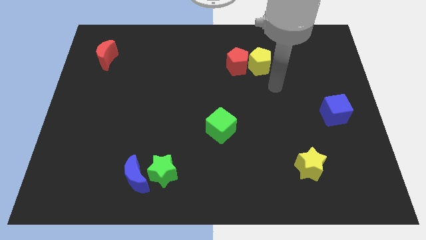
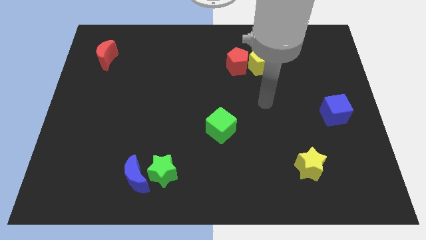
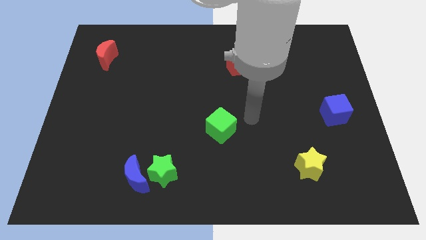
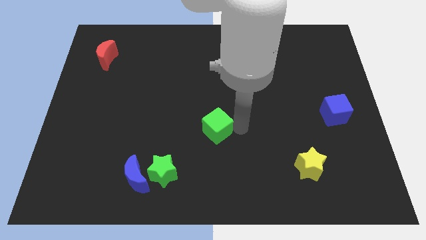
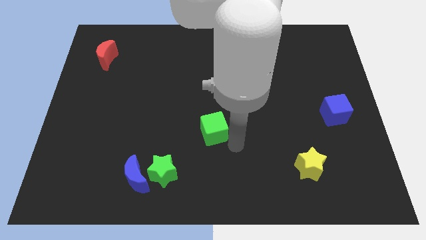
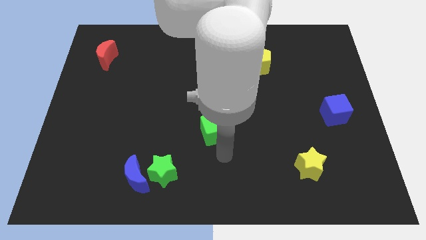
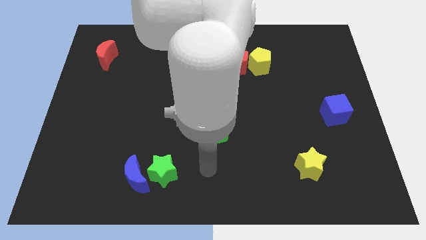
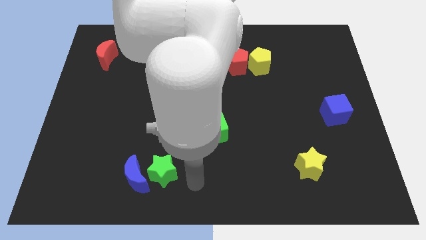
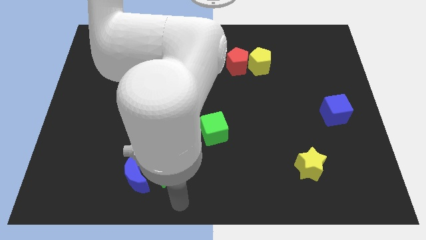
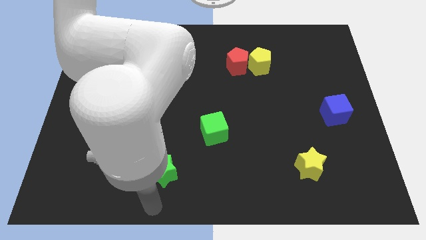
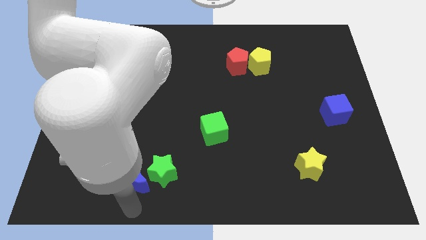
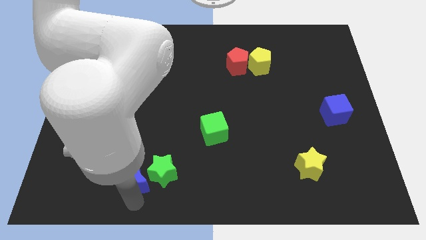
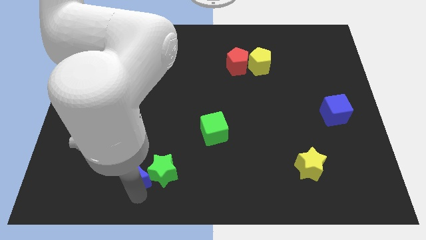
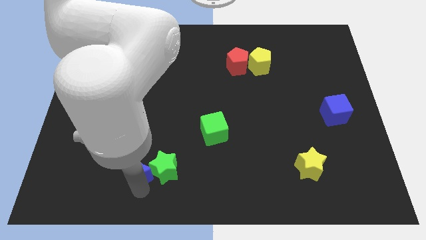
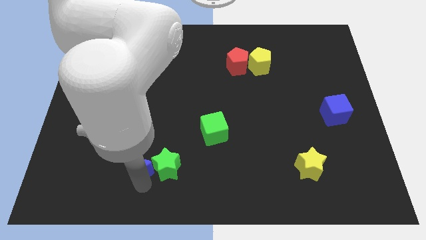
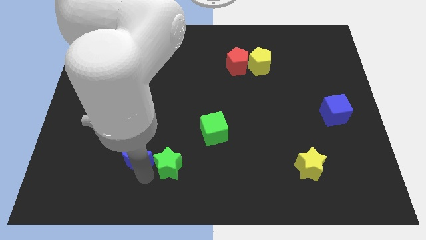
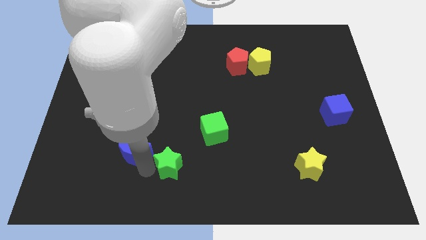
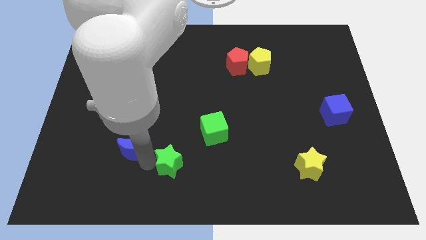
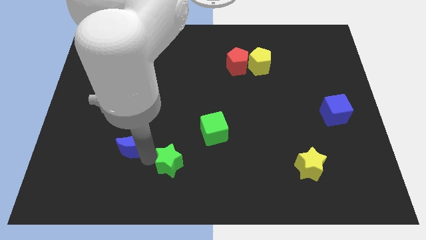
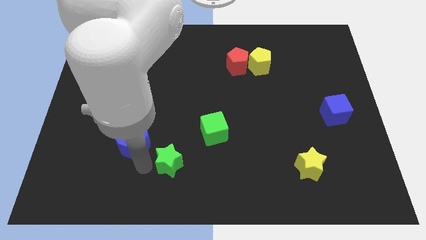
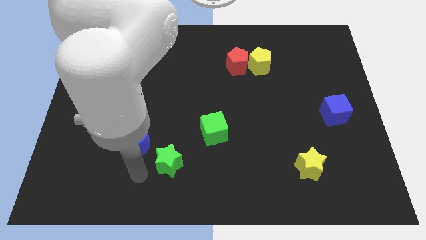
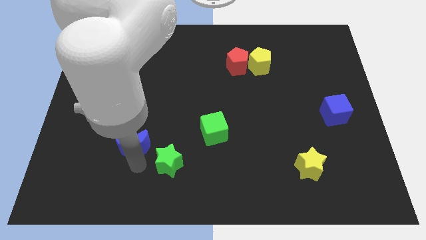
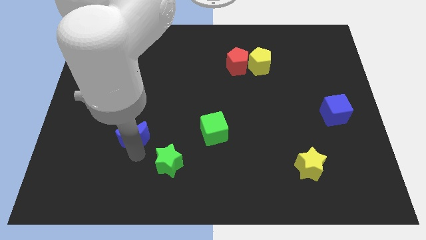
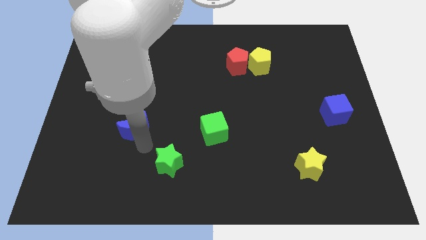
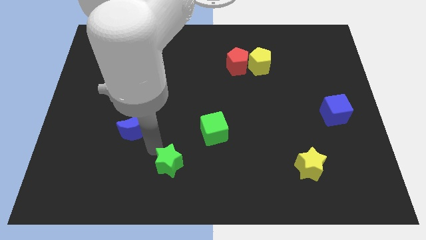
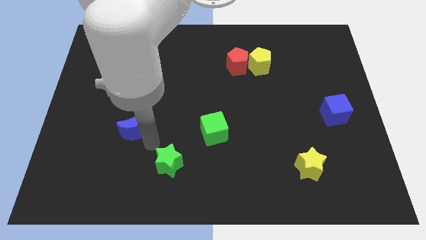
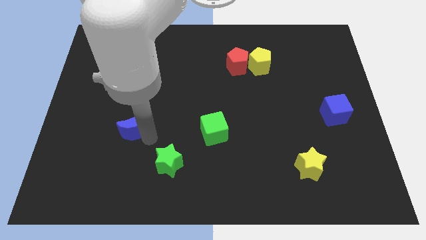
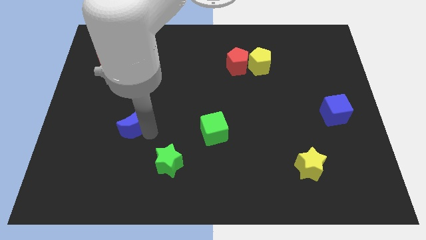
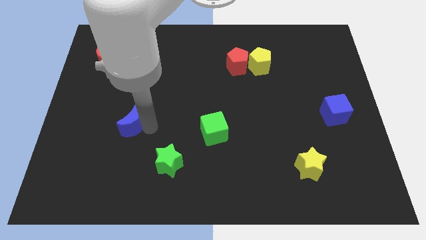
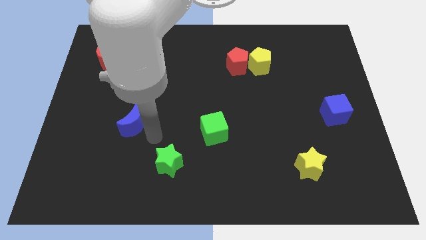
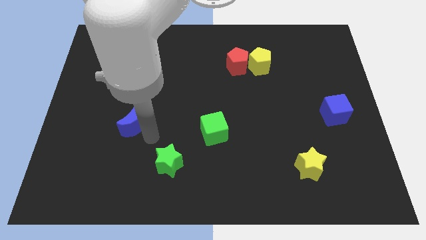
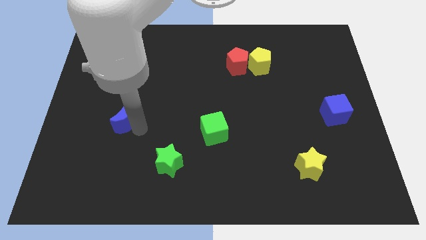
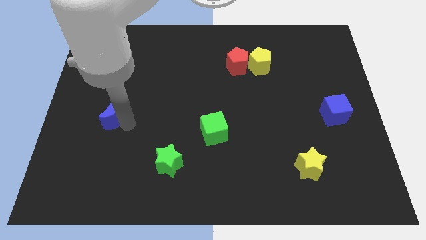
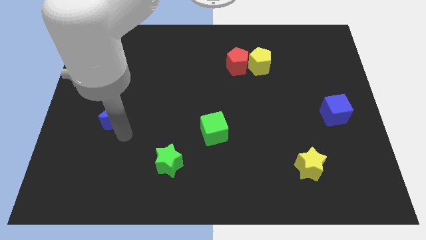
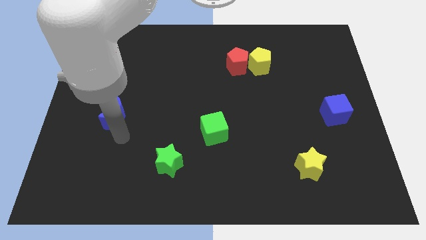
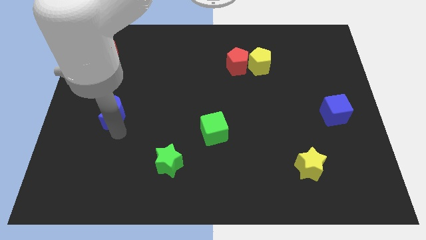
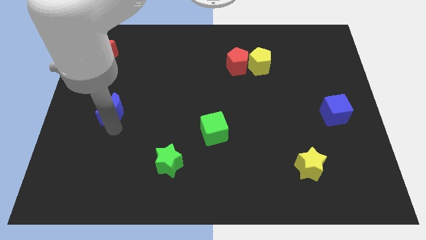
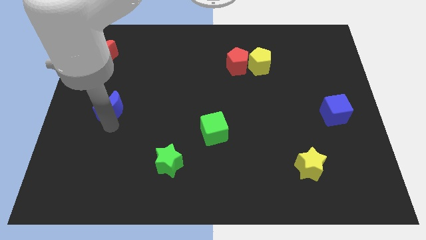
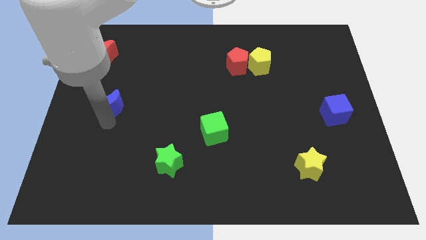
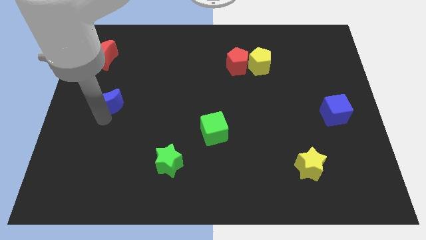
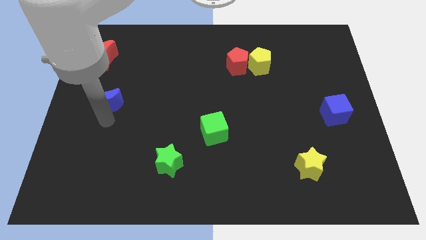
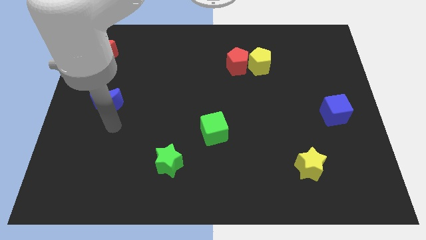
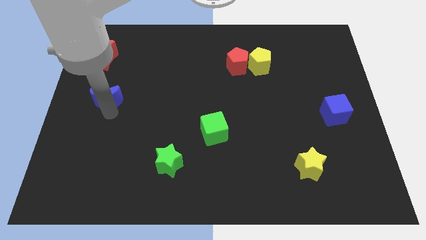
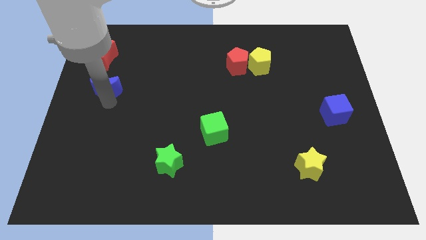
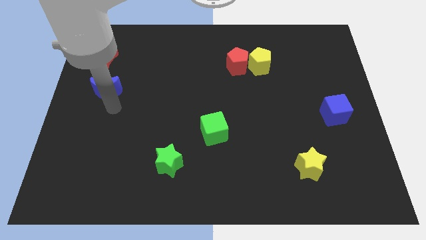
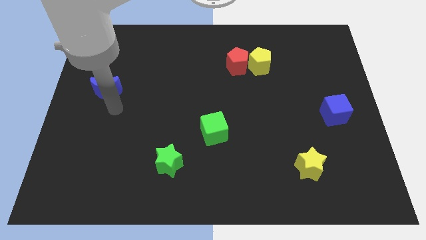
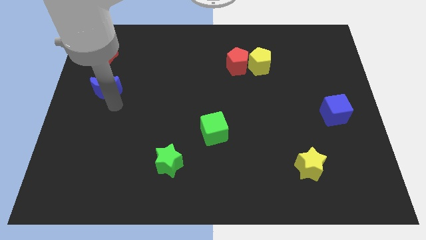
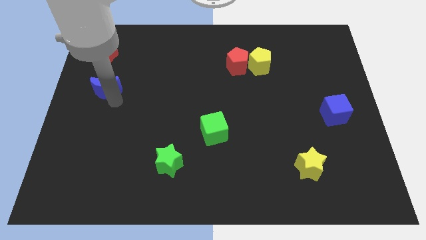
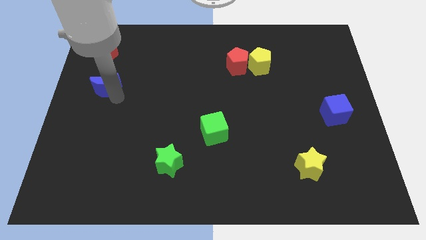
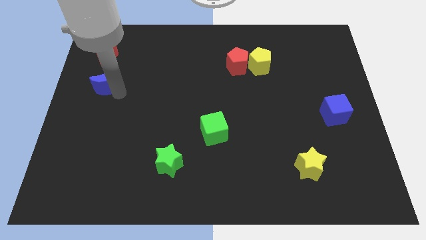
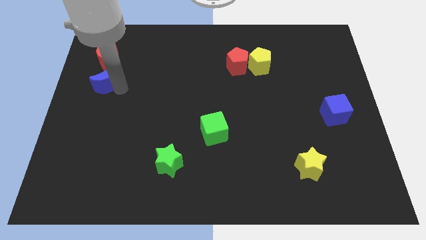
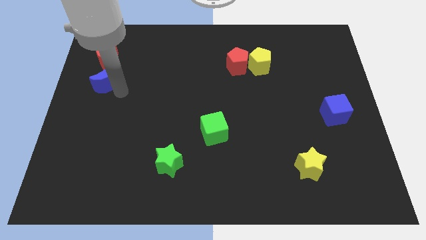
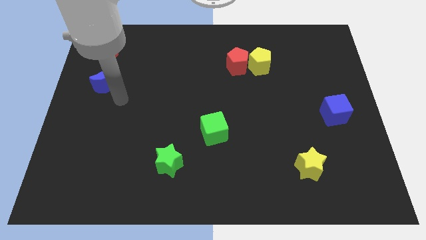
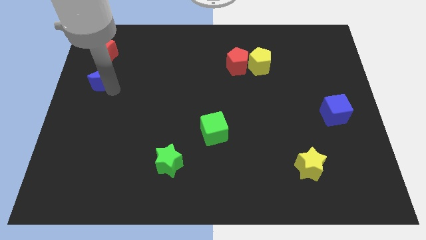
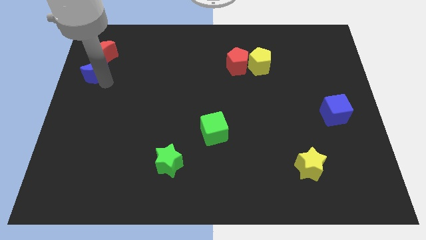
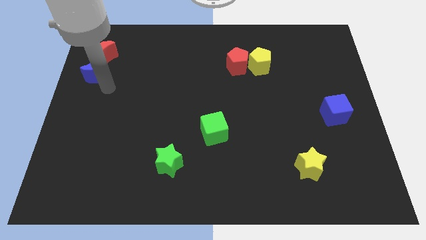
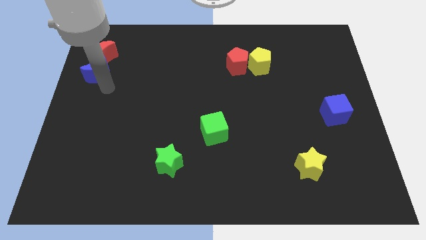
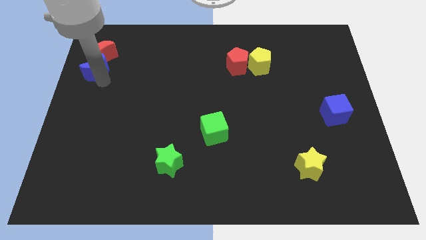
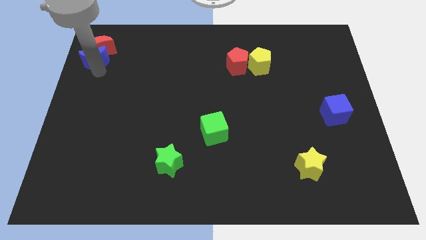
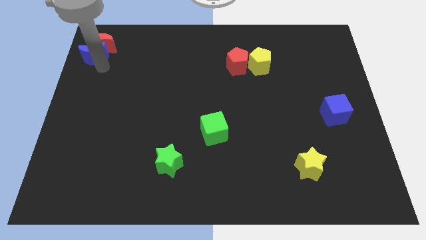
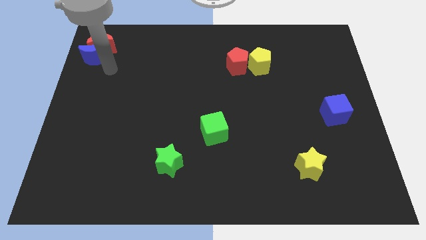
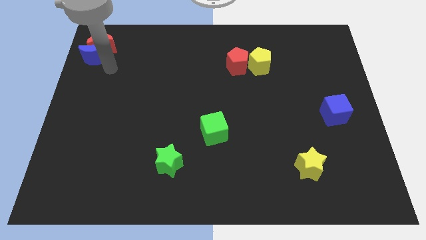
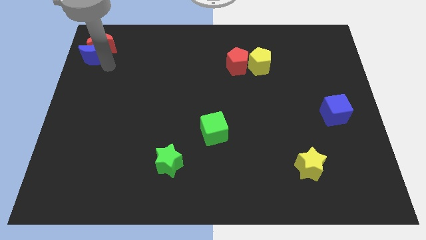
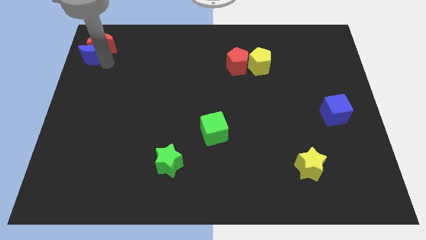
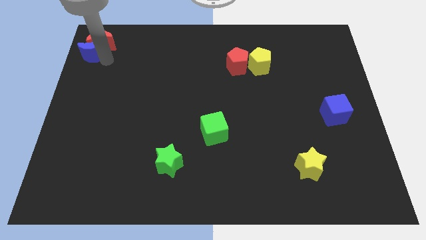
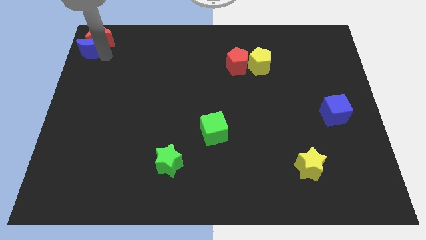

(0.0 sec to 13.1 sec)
put the blue moon to the top left corner

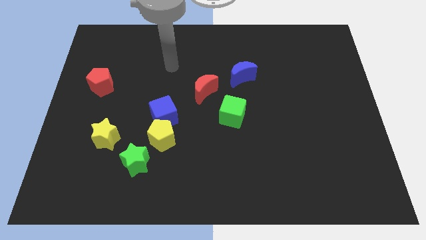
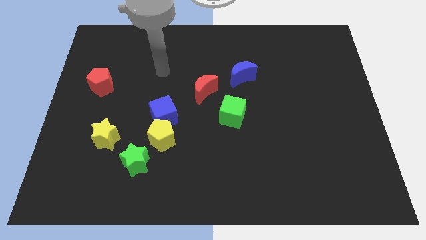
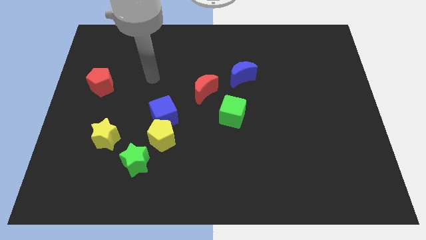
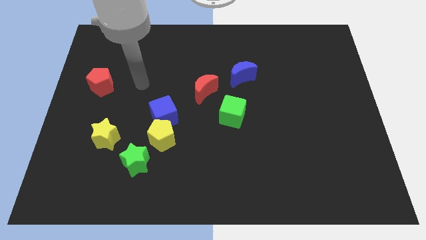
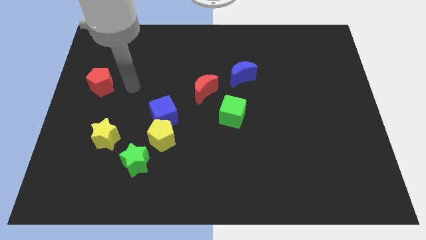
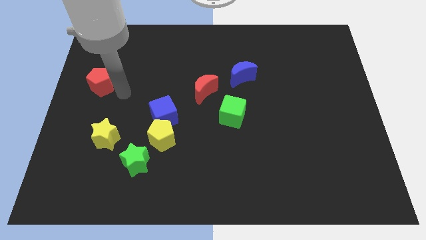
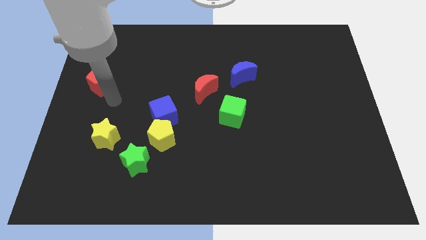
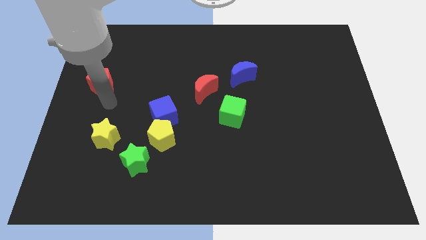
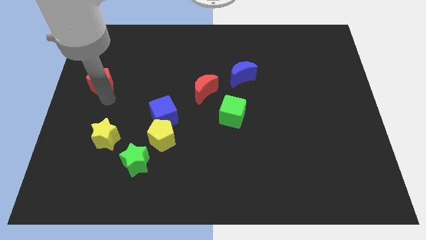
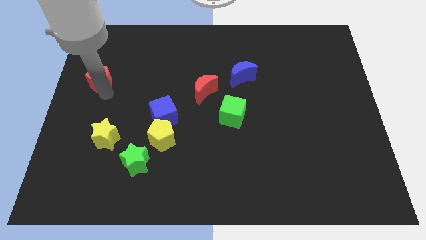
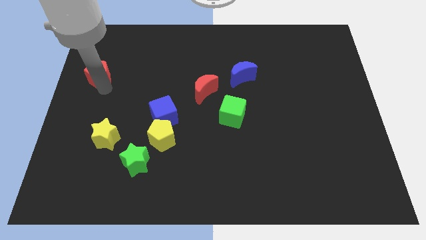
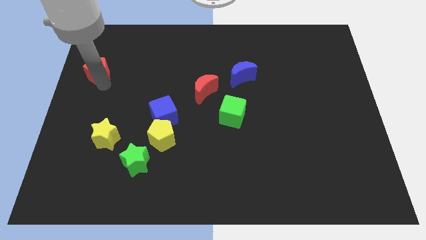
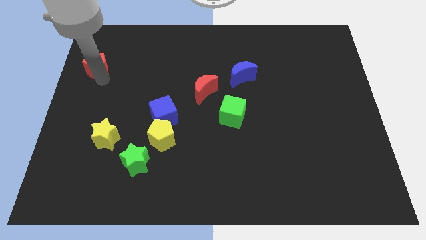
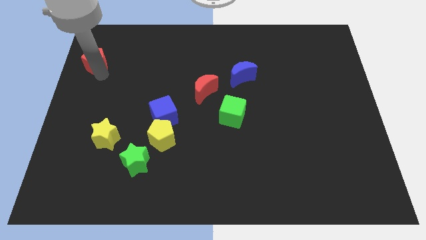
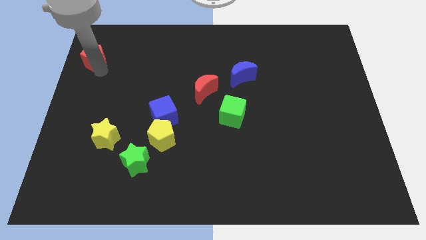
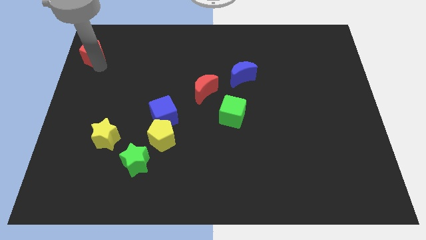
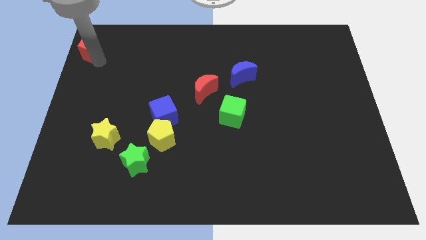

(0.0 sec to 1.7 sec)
slide the red pentagon to the upper left corner
